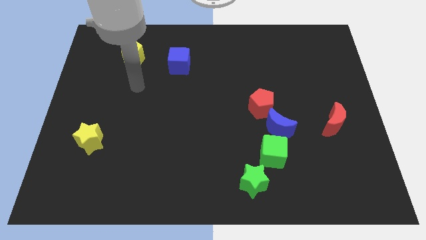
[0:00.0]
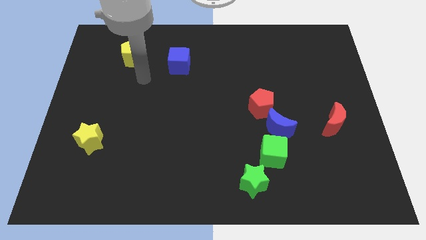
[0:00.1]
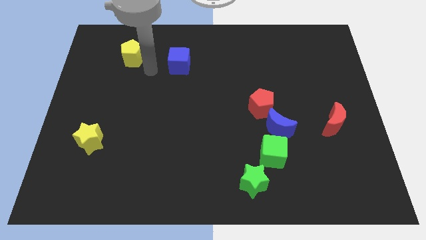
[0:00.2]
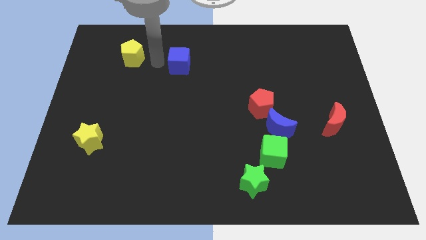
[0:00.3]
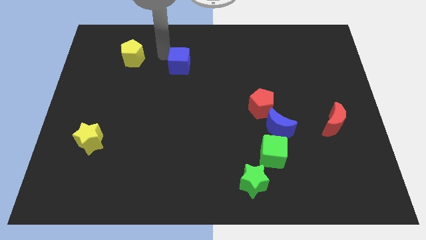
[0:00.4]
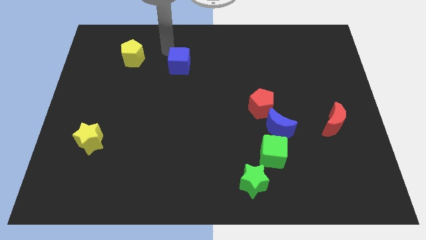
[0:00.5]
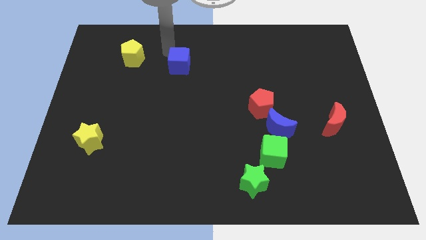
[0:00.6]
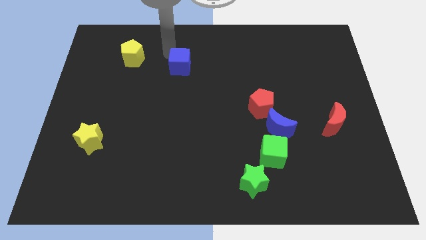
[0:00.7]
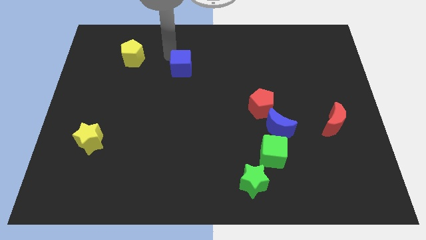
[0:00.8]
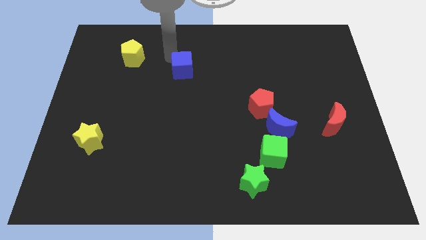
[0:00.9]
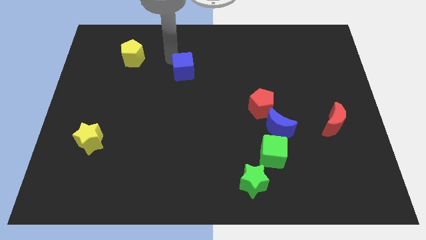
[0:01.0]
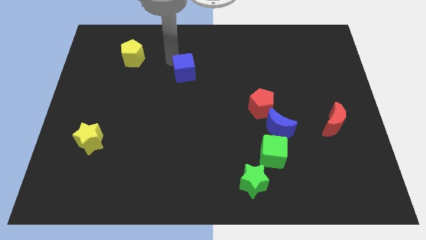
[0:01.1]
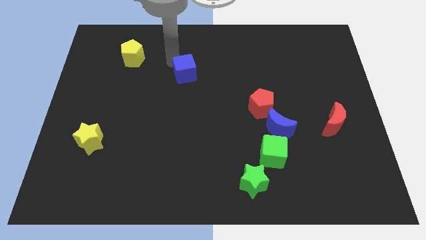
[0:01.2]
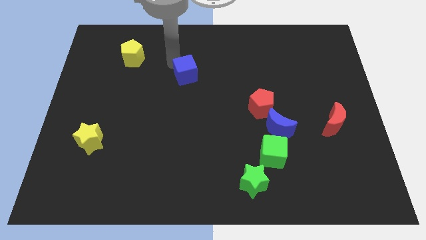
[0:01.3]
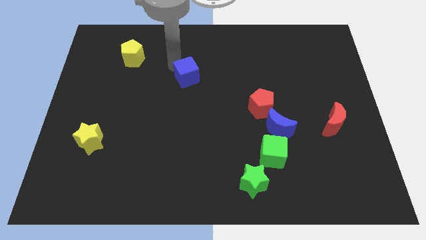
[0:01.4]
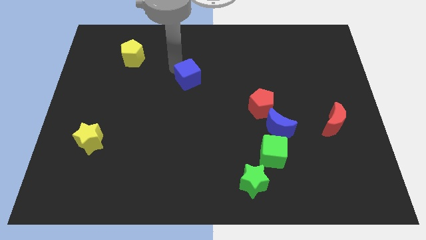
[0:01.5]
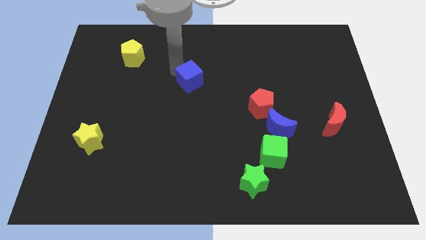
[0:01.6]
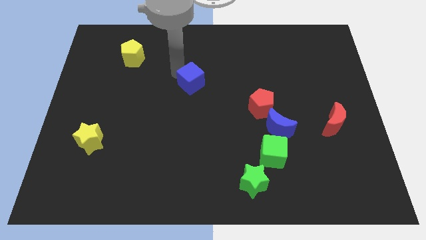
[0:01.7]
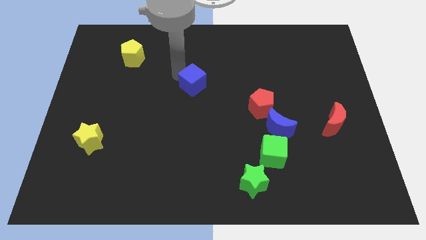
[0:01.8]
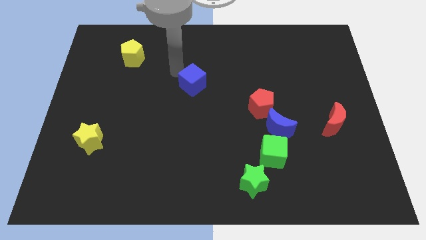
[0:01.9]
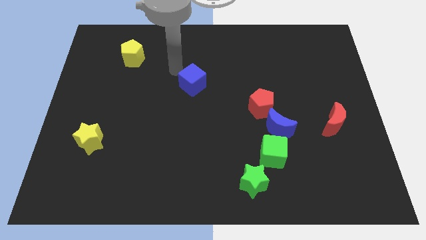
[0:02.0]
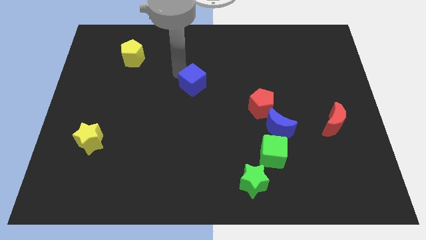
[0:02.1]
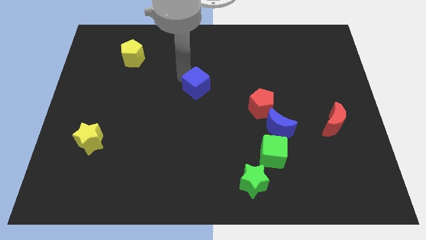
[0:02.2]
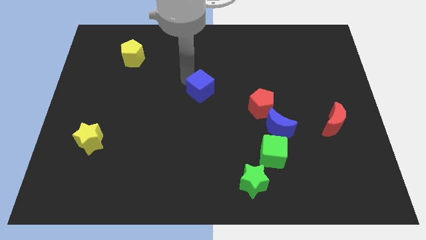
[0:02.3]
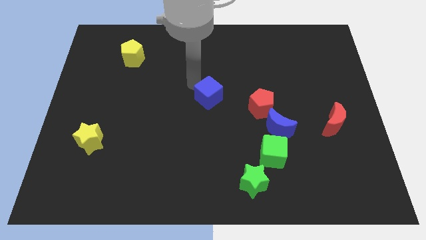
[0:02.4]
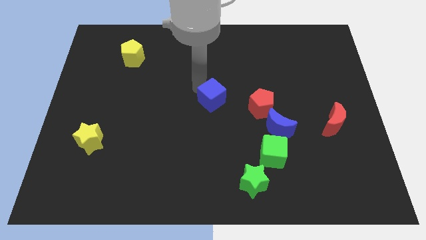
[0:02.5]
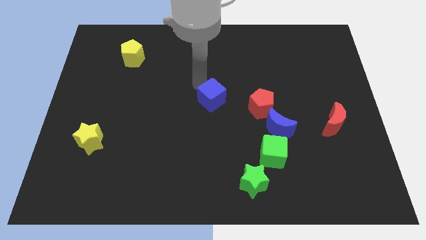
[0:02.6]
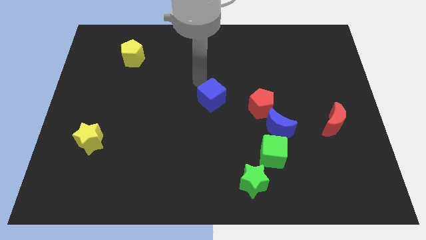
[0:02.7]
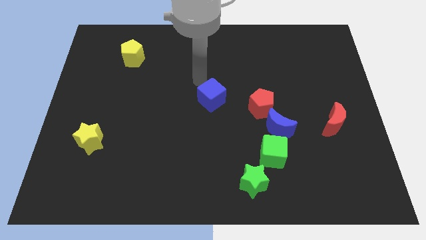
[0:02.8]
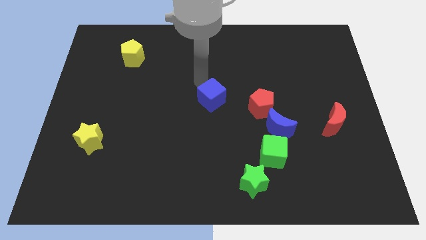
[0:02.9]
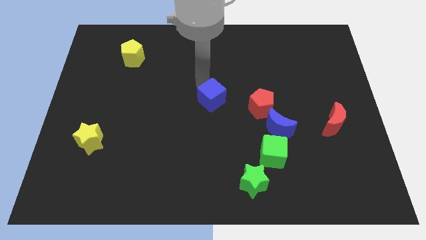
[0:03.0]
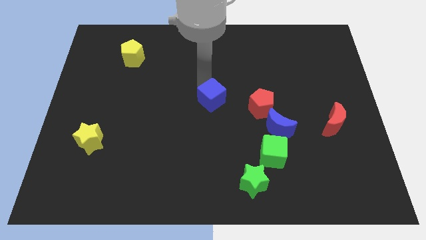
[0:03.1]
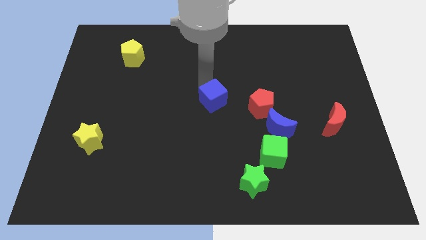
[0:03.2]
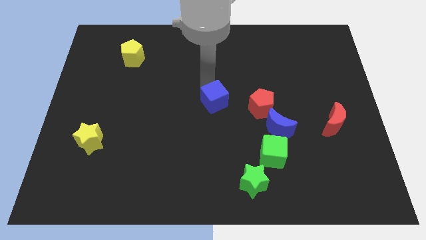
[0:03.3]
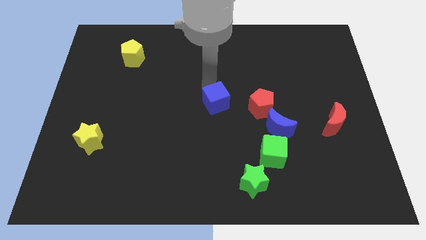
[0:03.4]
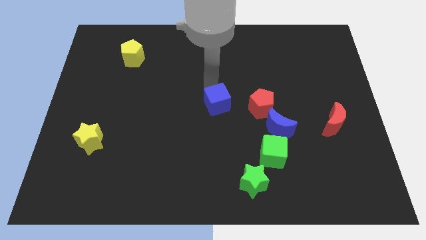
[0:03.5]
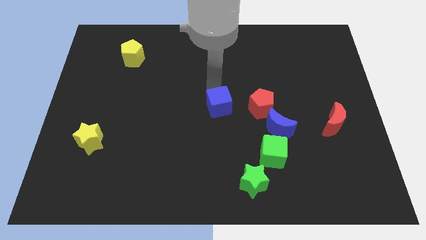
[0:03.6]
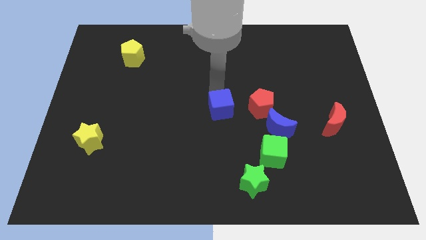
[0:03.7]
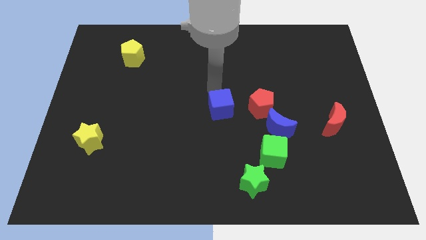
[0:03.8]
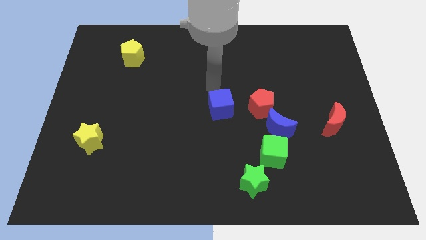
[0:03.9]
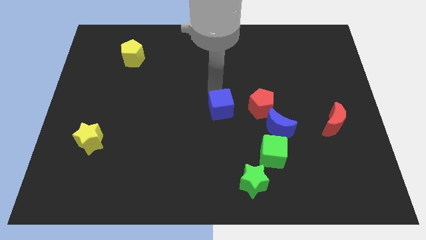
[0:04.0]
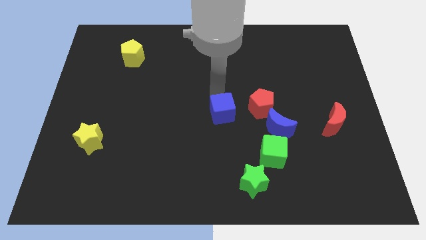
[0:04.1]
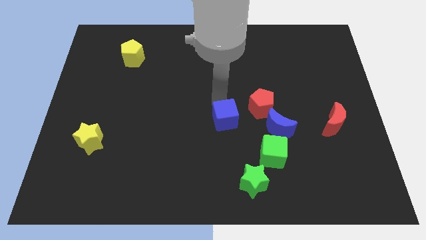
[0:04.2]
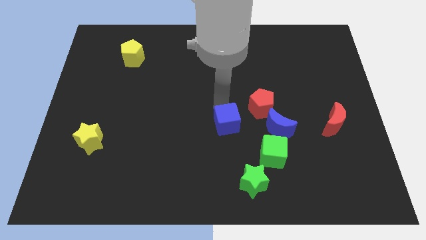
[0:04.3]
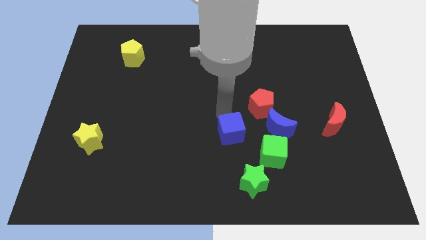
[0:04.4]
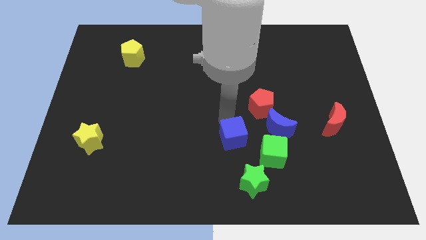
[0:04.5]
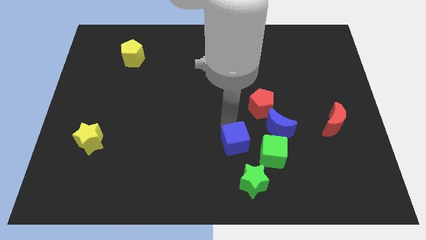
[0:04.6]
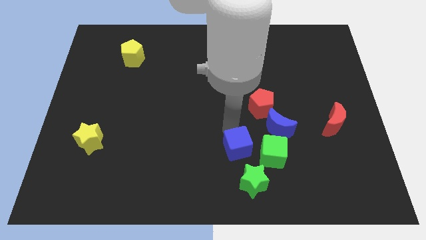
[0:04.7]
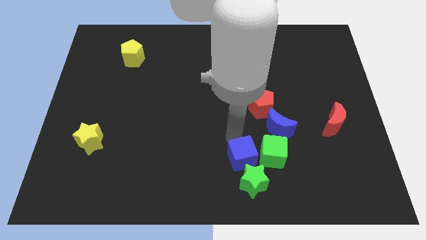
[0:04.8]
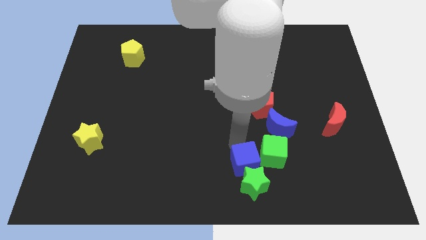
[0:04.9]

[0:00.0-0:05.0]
slide the blue cube towards the green star

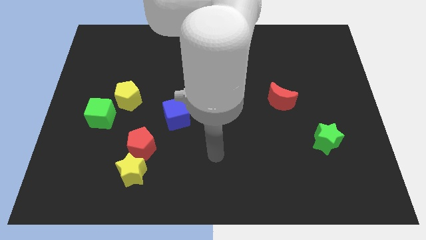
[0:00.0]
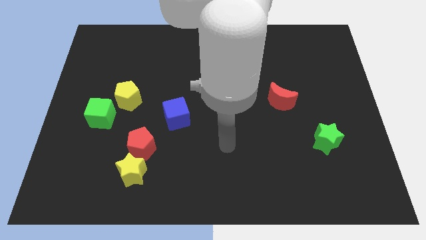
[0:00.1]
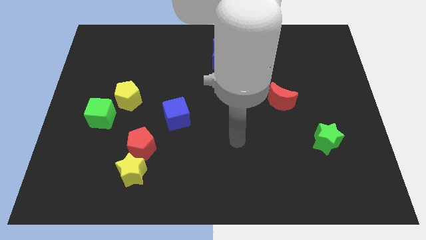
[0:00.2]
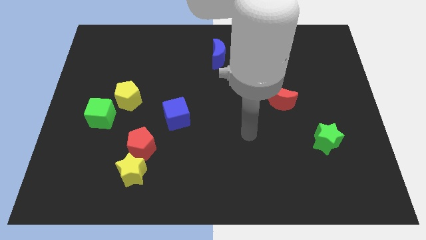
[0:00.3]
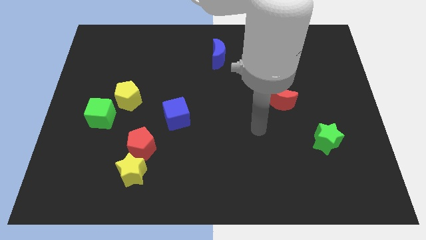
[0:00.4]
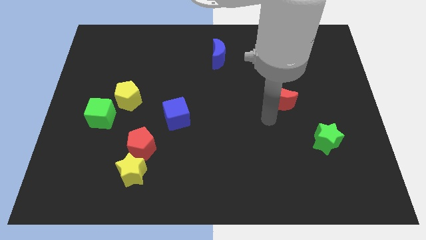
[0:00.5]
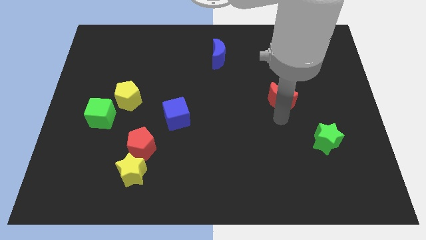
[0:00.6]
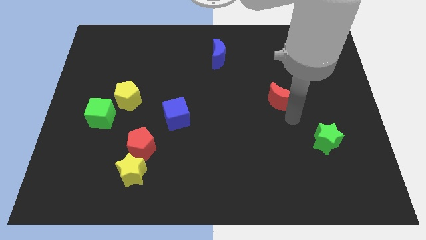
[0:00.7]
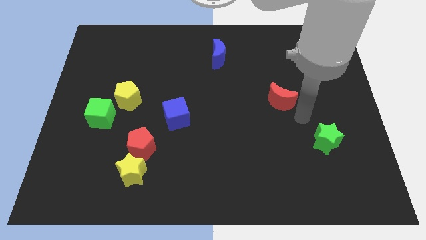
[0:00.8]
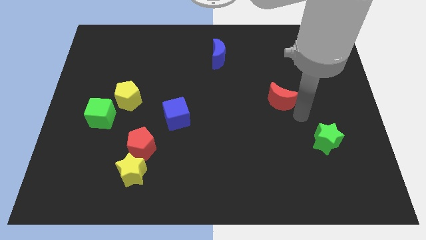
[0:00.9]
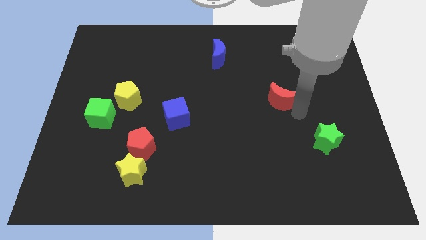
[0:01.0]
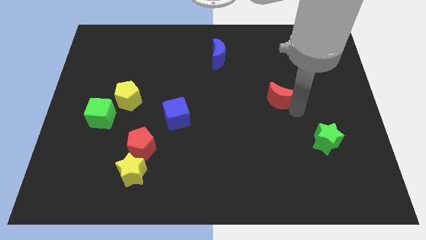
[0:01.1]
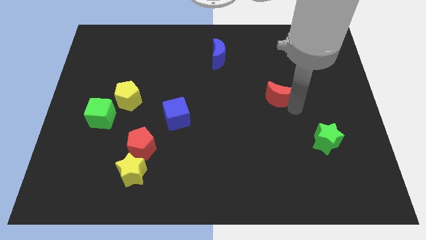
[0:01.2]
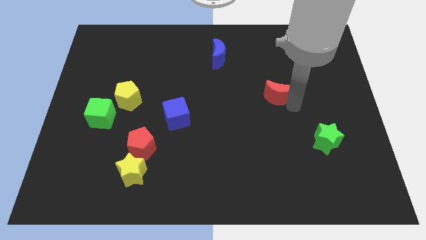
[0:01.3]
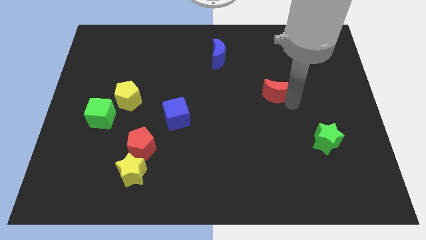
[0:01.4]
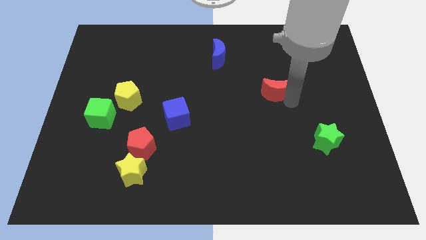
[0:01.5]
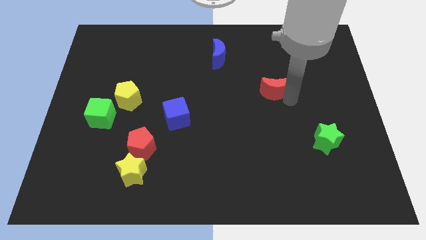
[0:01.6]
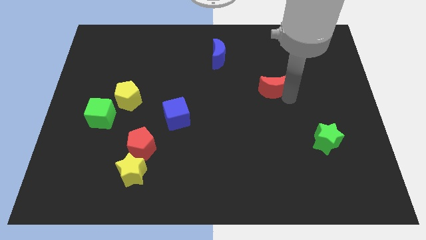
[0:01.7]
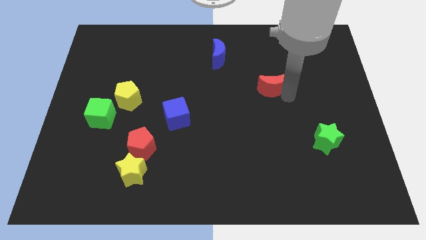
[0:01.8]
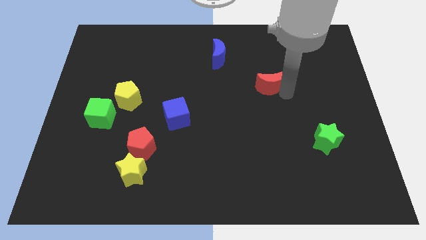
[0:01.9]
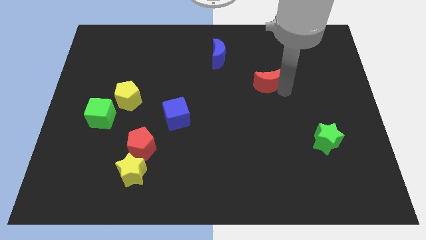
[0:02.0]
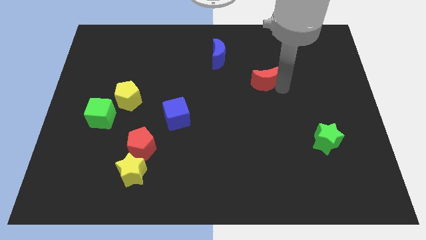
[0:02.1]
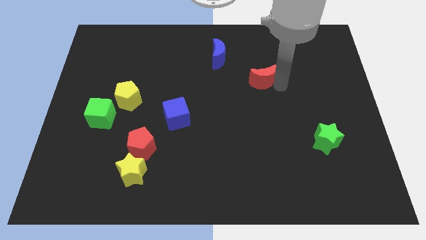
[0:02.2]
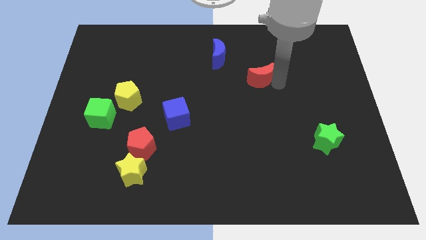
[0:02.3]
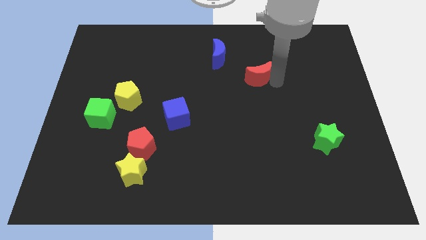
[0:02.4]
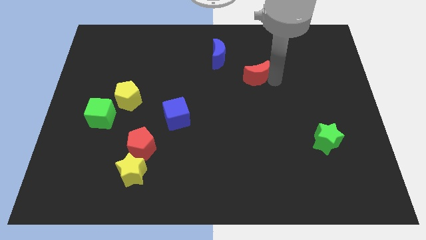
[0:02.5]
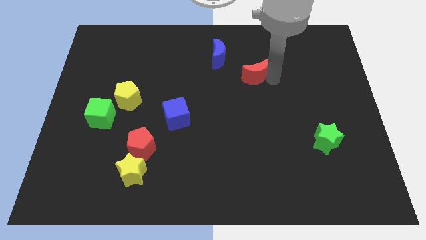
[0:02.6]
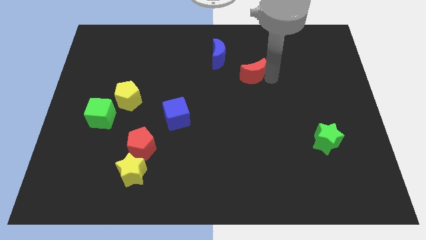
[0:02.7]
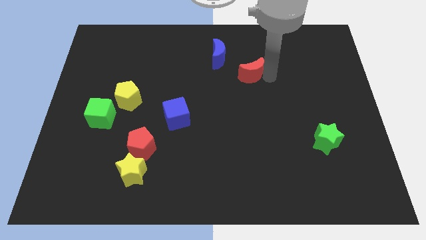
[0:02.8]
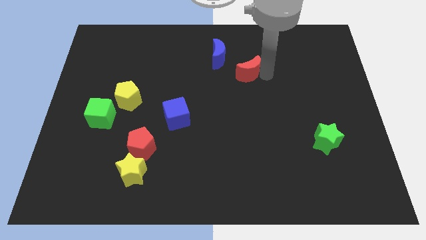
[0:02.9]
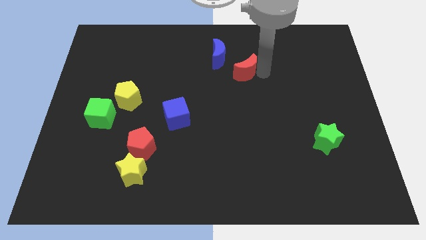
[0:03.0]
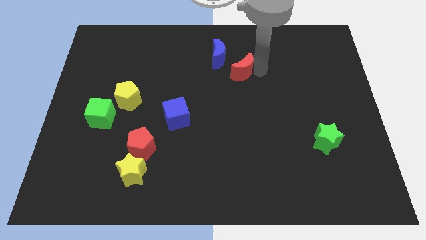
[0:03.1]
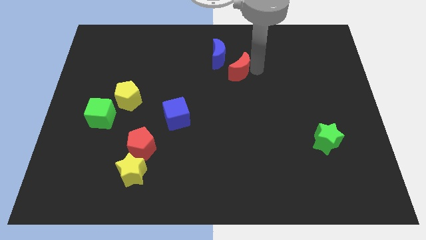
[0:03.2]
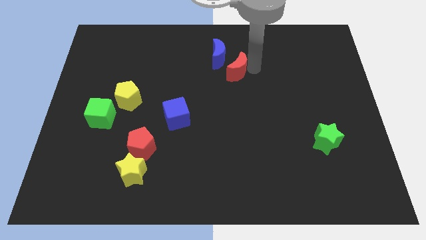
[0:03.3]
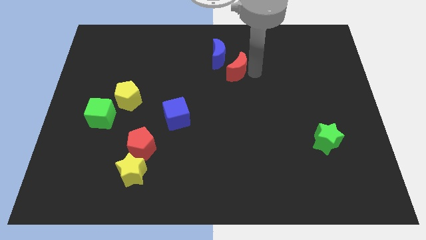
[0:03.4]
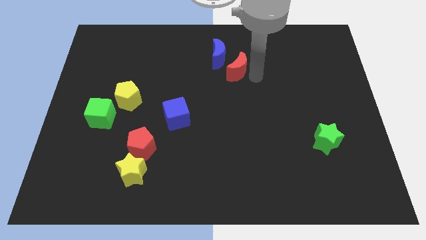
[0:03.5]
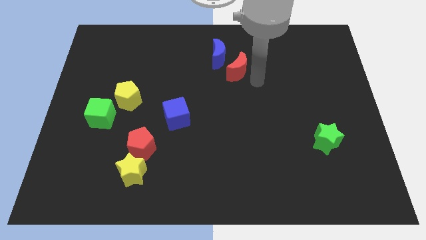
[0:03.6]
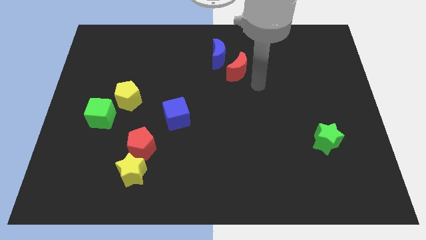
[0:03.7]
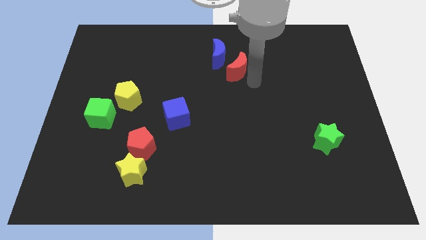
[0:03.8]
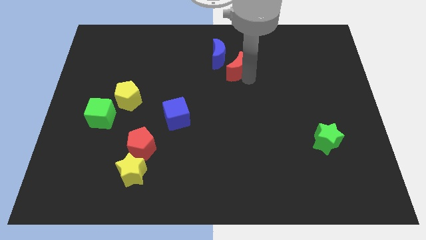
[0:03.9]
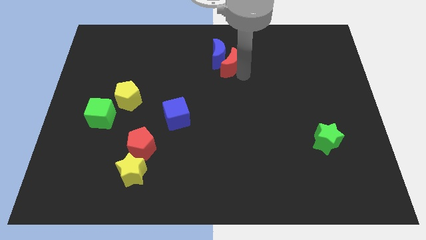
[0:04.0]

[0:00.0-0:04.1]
push the red moon next to the blue moon
